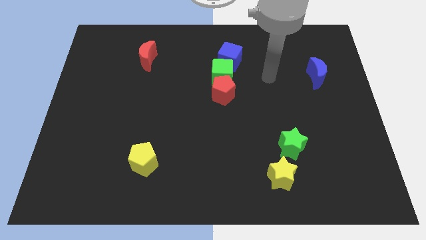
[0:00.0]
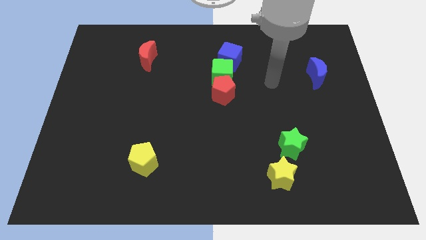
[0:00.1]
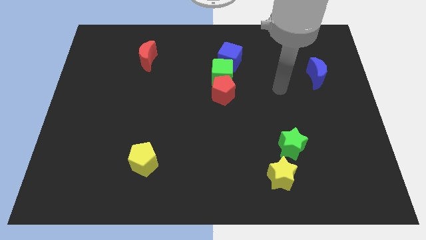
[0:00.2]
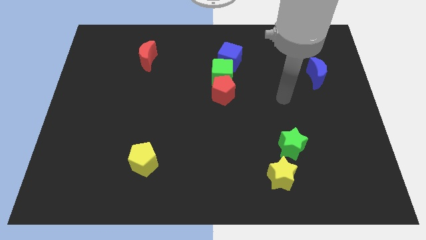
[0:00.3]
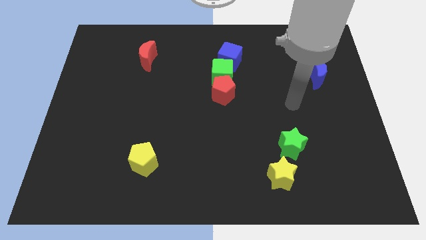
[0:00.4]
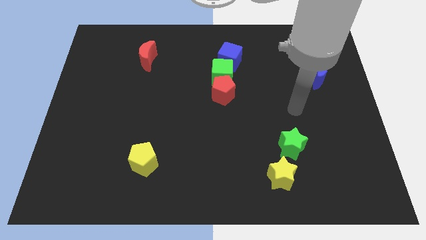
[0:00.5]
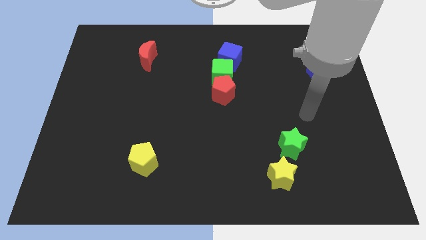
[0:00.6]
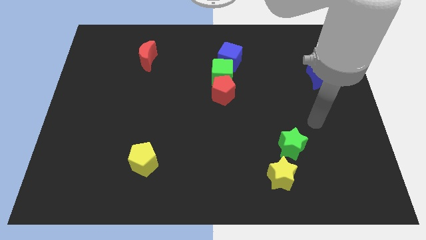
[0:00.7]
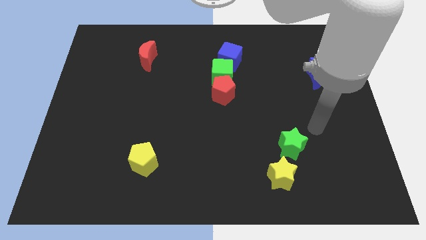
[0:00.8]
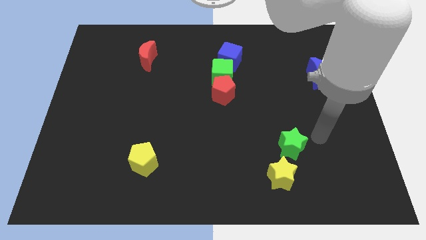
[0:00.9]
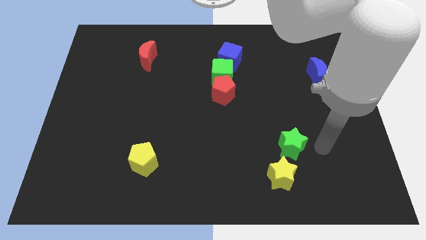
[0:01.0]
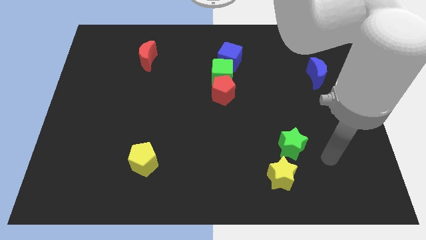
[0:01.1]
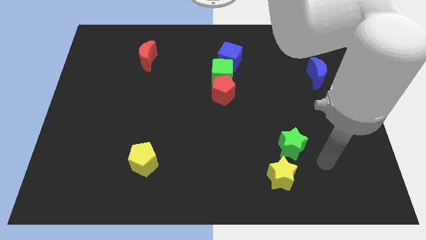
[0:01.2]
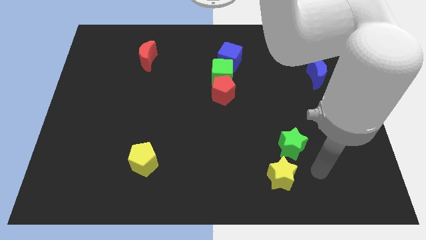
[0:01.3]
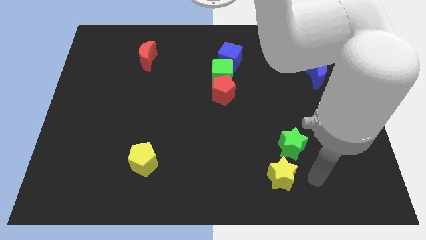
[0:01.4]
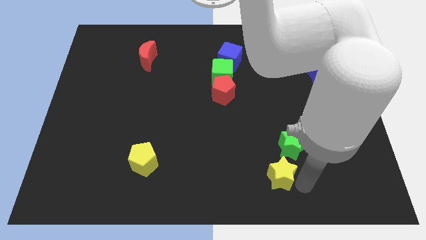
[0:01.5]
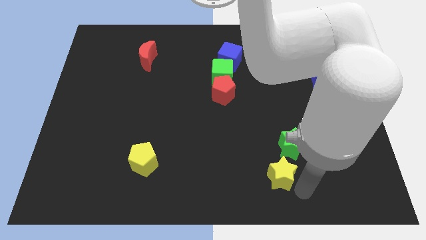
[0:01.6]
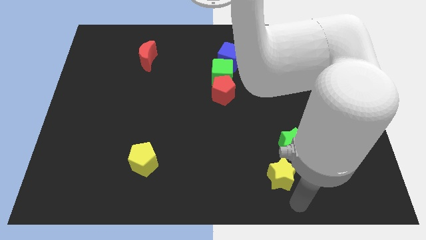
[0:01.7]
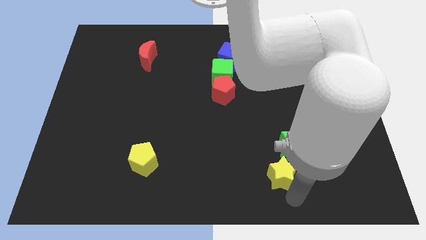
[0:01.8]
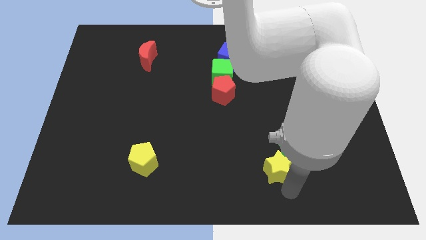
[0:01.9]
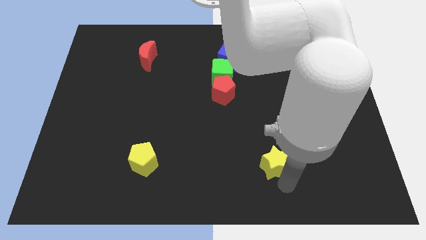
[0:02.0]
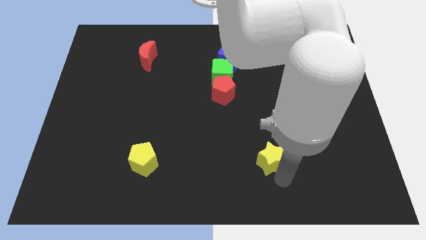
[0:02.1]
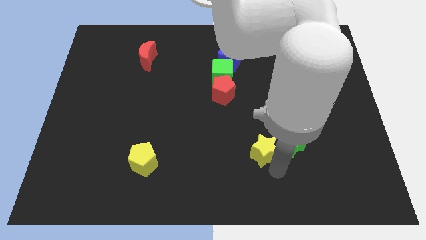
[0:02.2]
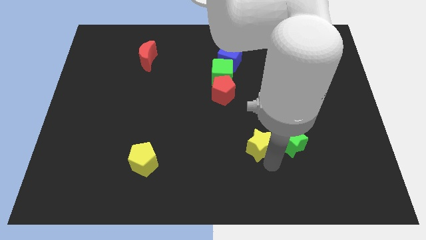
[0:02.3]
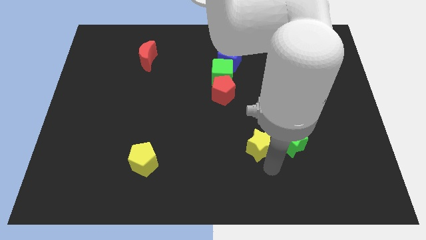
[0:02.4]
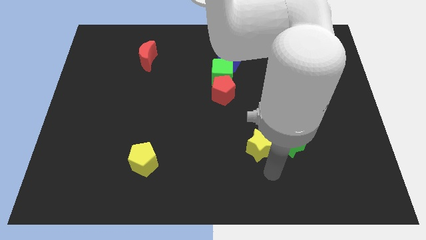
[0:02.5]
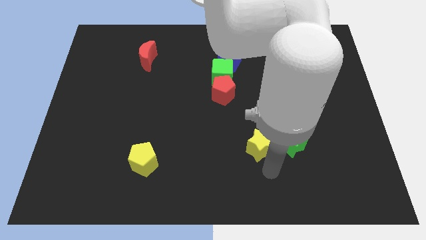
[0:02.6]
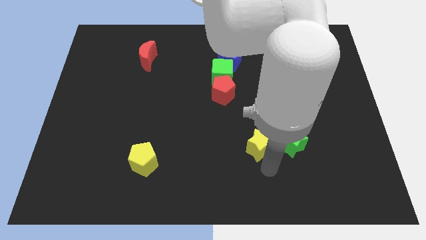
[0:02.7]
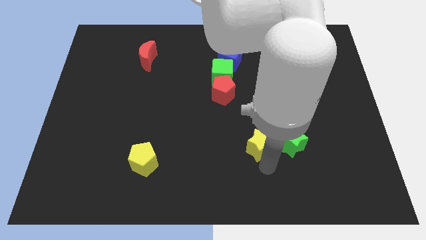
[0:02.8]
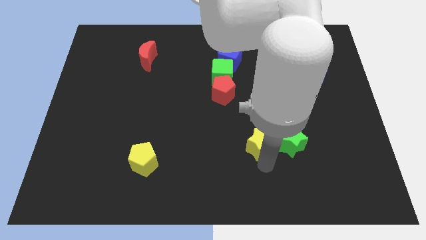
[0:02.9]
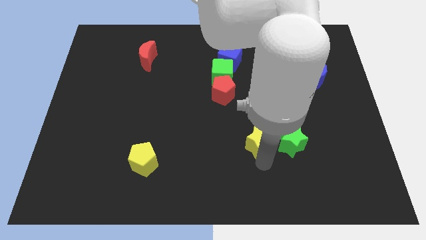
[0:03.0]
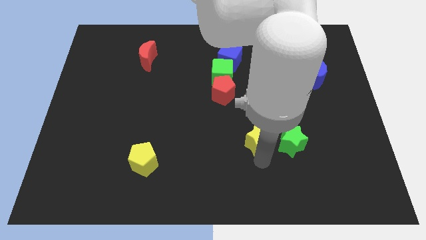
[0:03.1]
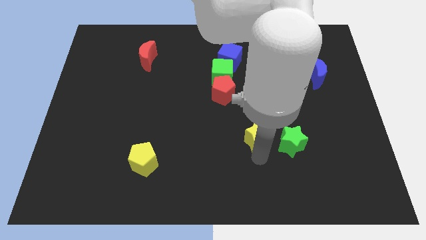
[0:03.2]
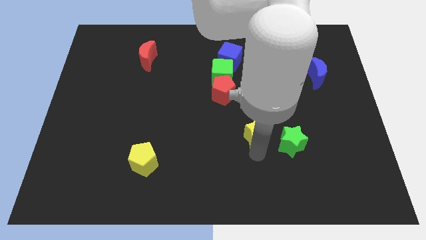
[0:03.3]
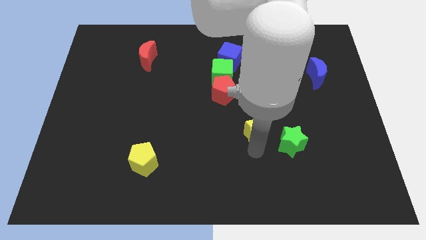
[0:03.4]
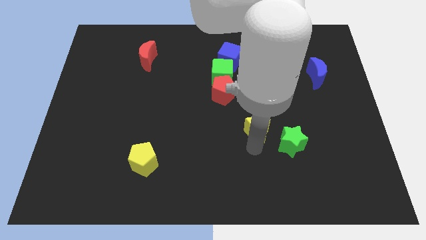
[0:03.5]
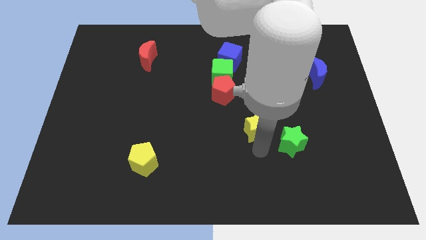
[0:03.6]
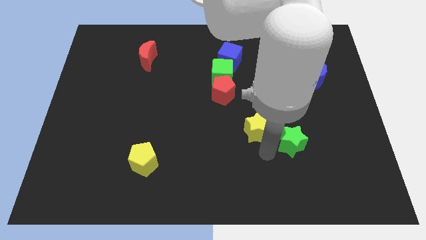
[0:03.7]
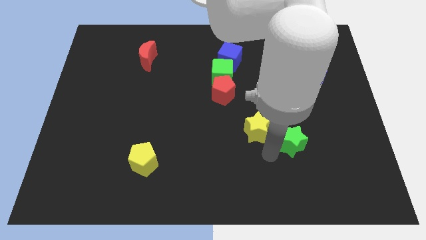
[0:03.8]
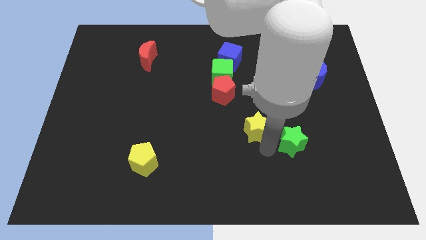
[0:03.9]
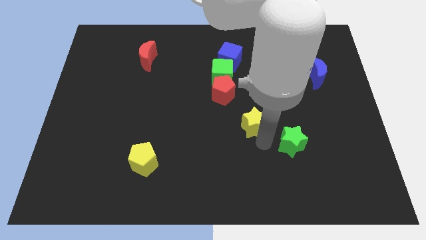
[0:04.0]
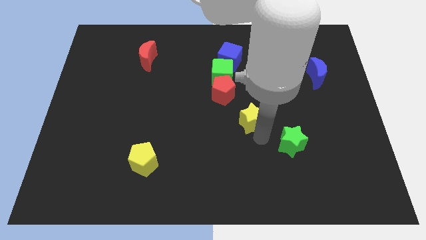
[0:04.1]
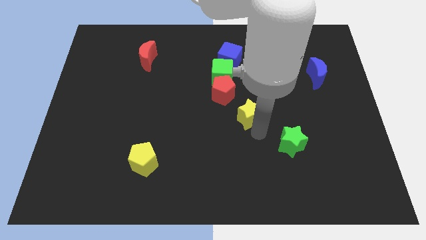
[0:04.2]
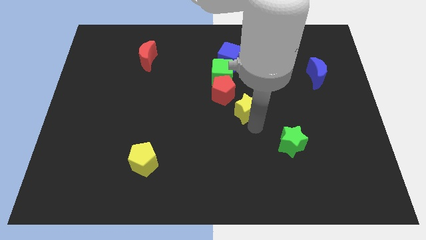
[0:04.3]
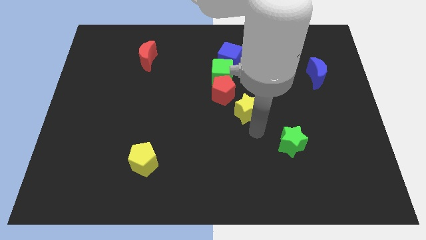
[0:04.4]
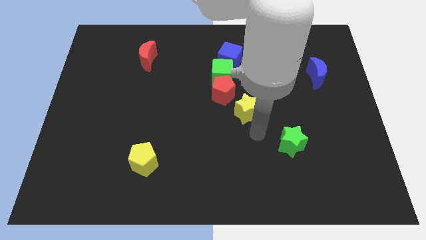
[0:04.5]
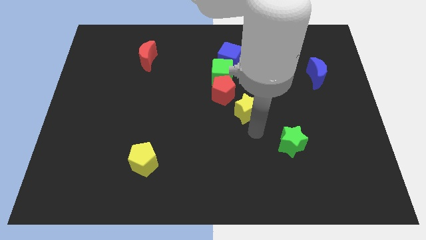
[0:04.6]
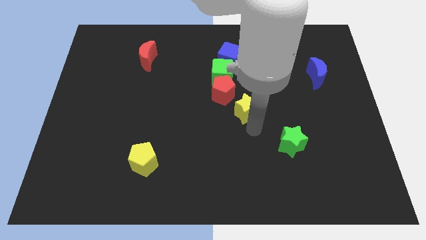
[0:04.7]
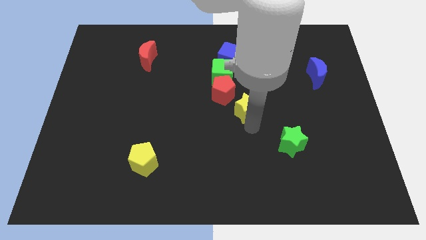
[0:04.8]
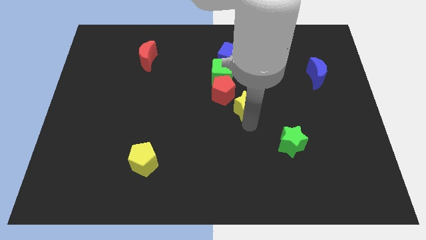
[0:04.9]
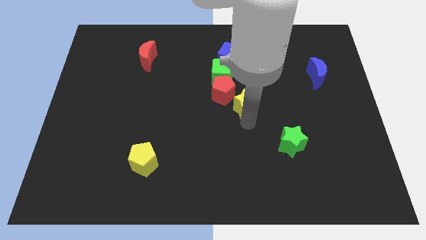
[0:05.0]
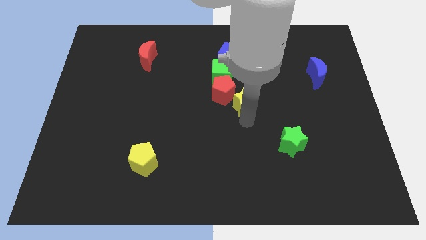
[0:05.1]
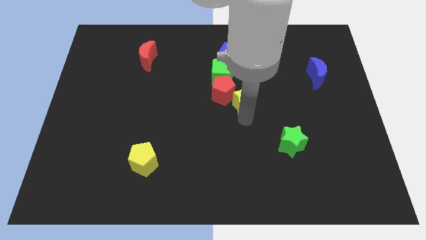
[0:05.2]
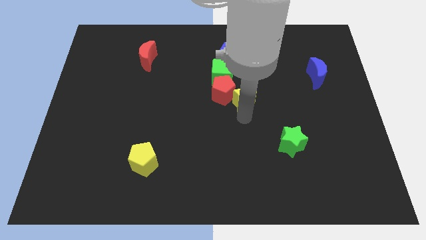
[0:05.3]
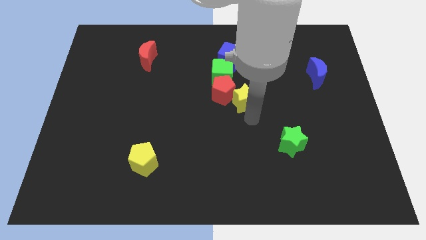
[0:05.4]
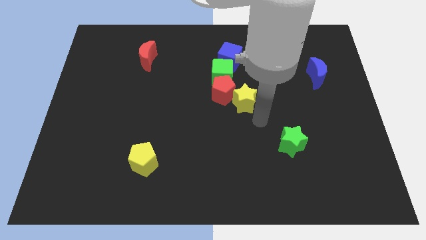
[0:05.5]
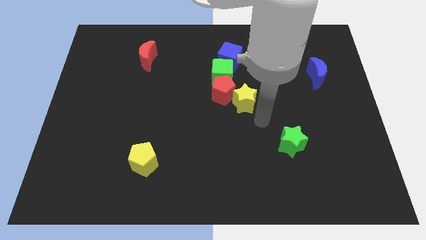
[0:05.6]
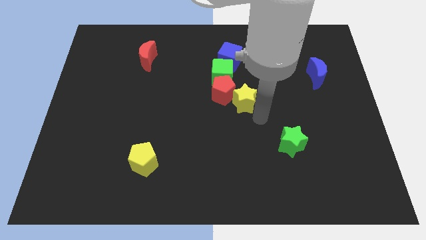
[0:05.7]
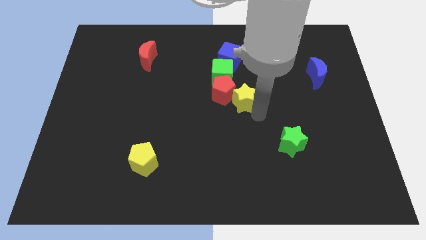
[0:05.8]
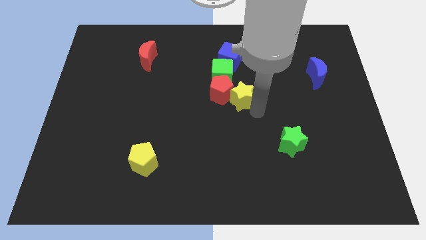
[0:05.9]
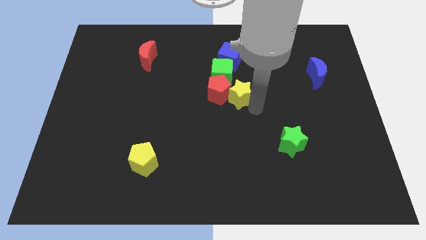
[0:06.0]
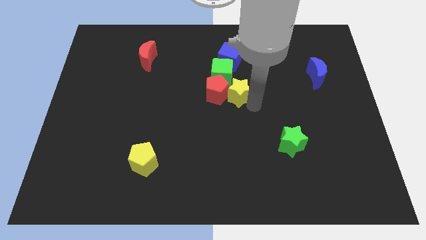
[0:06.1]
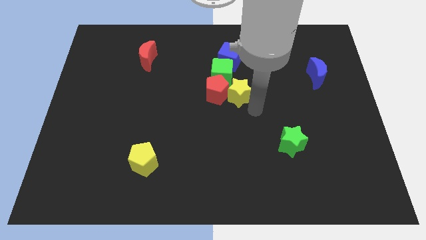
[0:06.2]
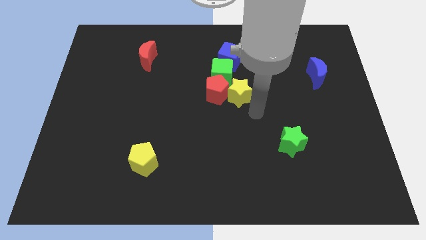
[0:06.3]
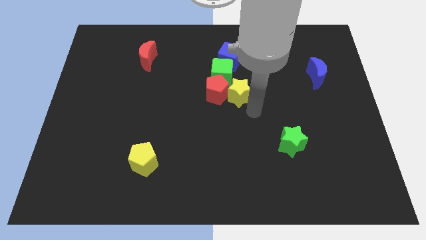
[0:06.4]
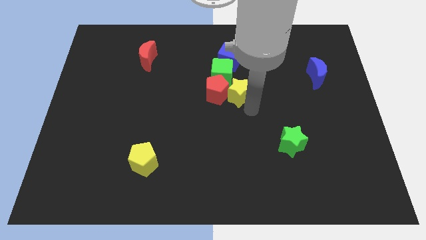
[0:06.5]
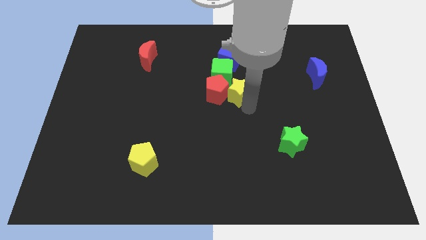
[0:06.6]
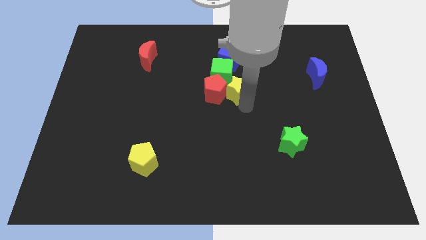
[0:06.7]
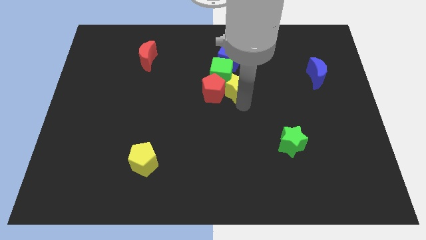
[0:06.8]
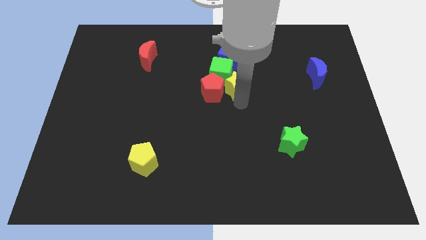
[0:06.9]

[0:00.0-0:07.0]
push the yellow star next to the green cube
